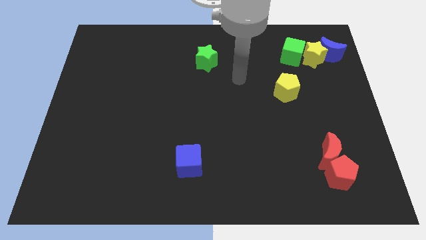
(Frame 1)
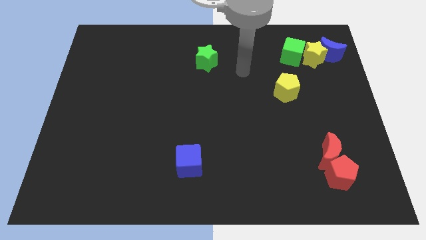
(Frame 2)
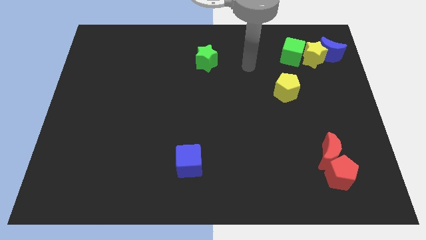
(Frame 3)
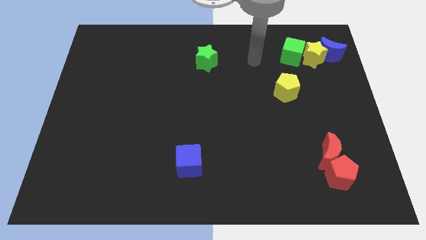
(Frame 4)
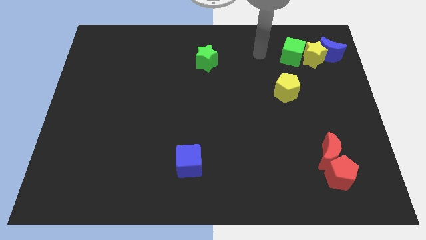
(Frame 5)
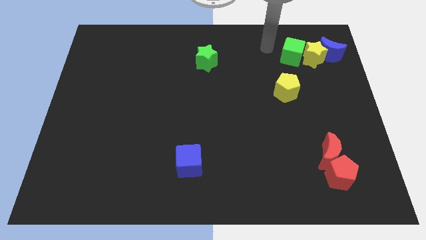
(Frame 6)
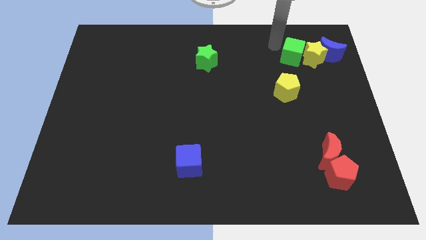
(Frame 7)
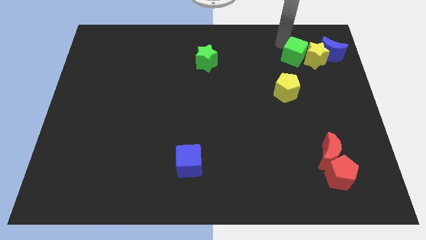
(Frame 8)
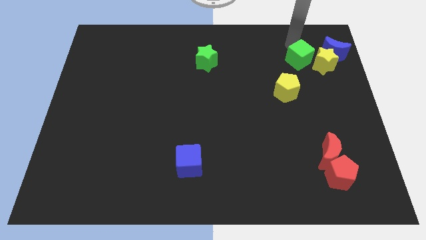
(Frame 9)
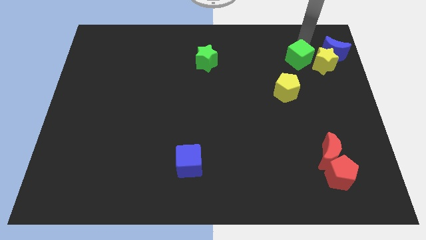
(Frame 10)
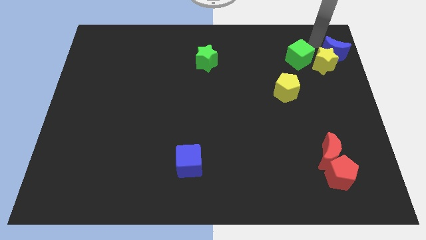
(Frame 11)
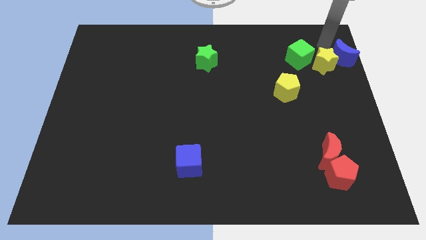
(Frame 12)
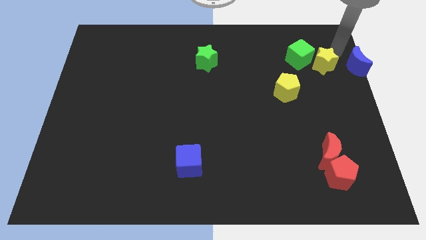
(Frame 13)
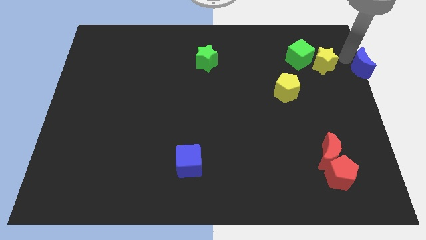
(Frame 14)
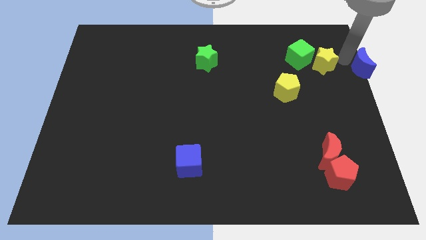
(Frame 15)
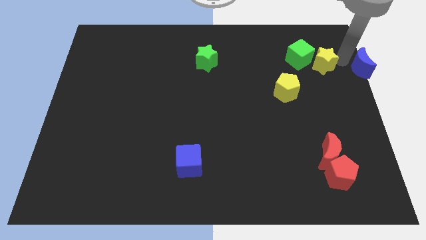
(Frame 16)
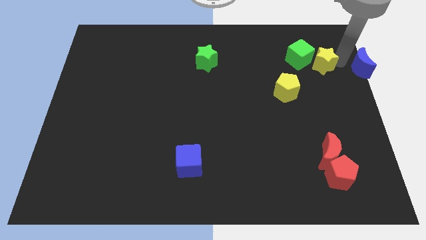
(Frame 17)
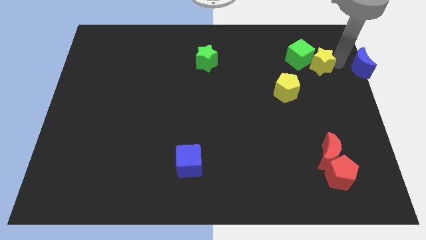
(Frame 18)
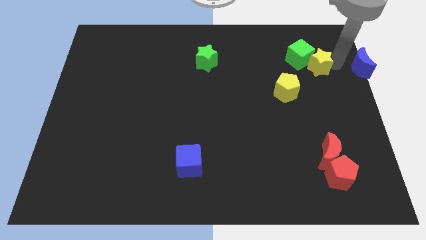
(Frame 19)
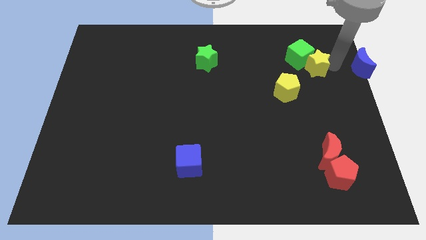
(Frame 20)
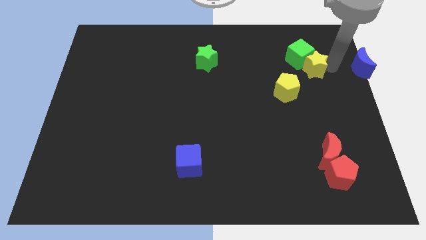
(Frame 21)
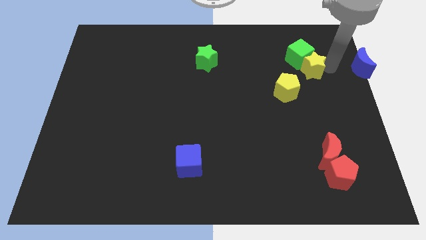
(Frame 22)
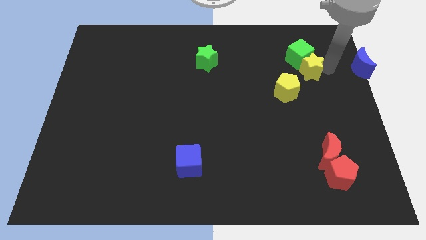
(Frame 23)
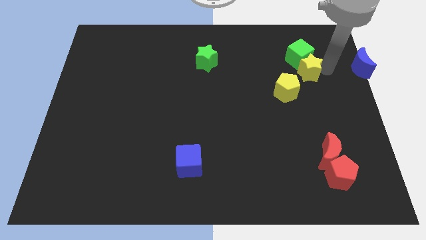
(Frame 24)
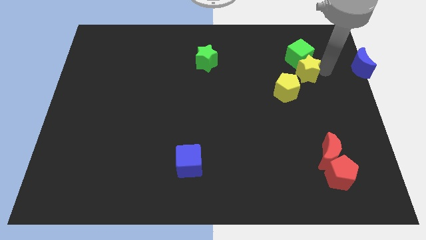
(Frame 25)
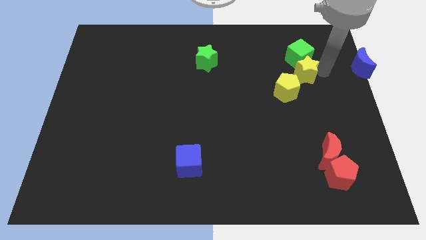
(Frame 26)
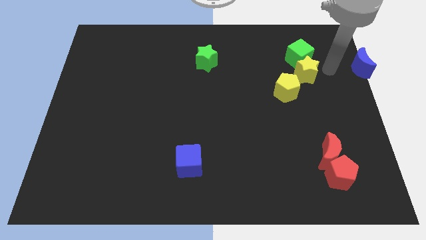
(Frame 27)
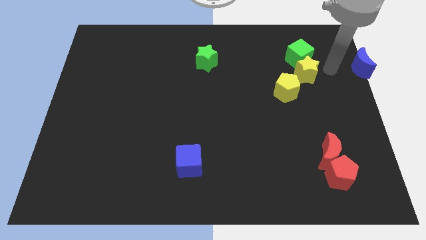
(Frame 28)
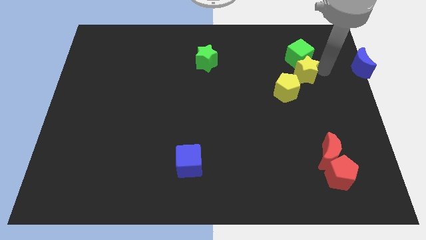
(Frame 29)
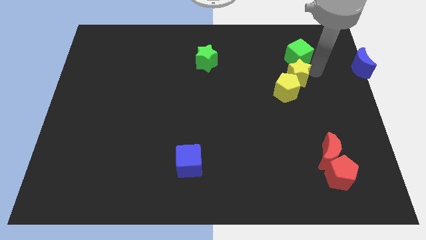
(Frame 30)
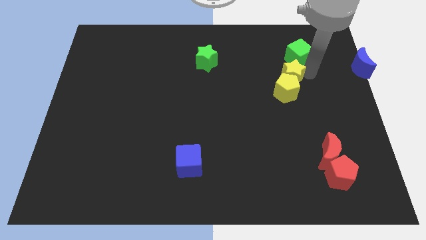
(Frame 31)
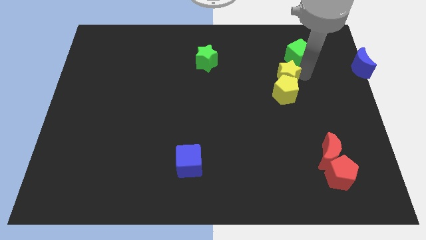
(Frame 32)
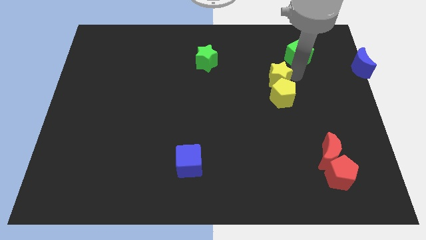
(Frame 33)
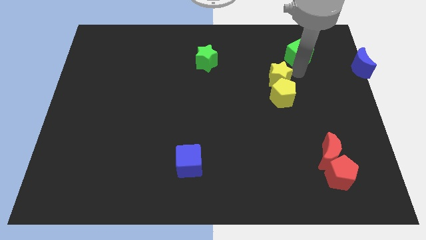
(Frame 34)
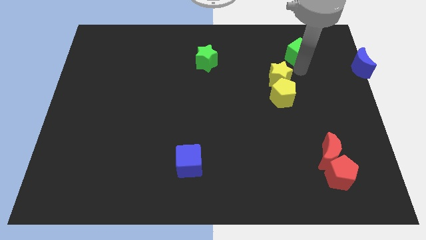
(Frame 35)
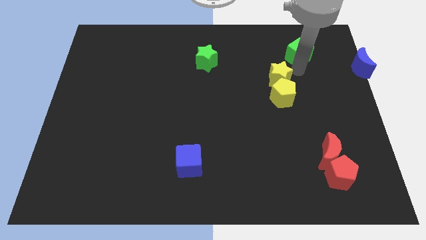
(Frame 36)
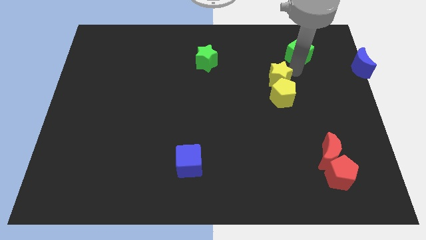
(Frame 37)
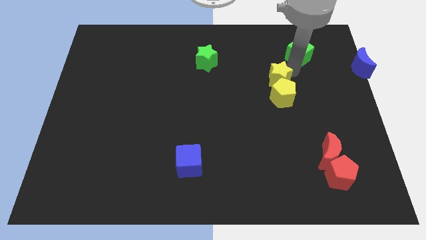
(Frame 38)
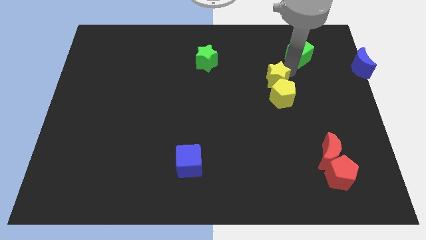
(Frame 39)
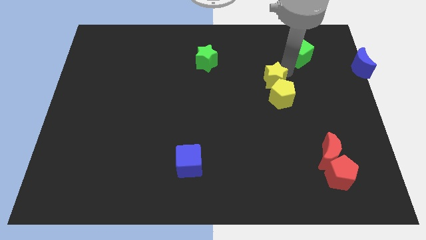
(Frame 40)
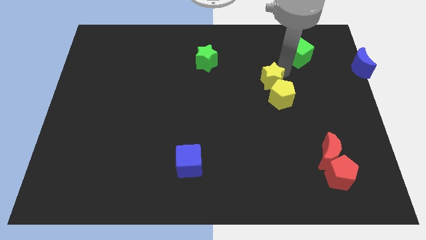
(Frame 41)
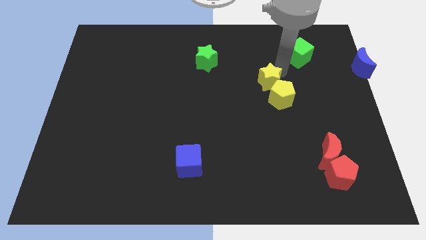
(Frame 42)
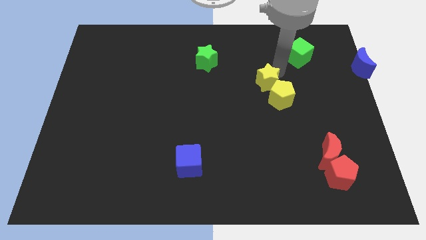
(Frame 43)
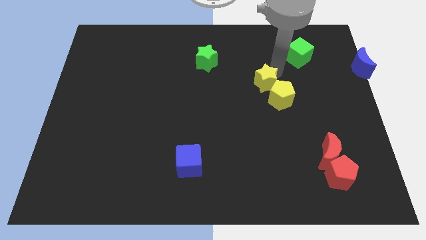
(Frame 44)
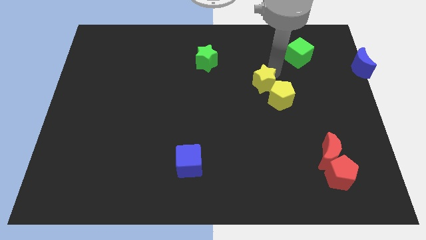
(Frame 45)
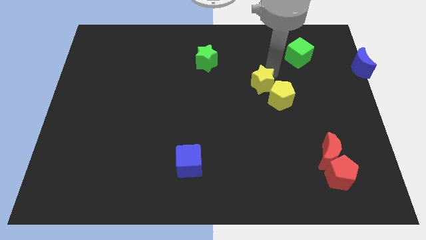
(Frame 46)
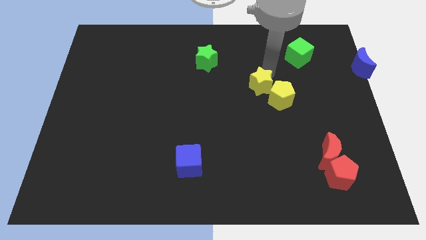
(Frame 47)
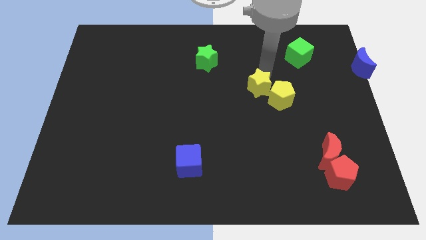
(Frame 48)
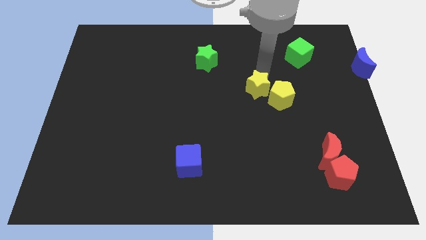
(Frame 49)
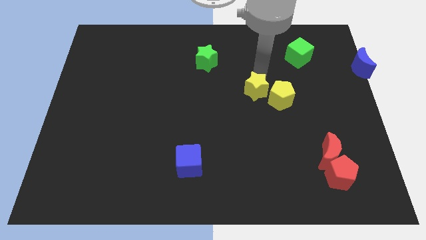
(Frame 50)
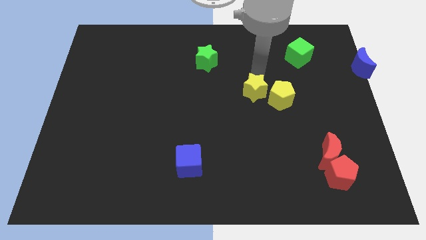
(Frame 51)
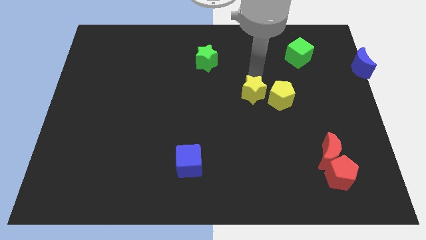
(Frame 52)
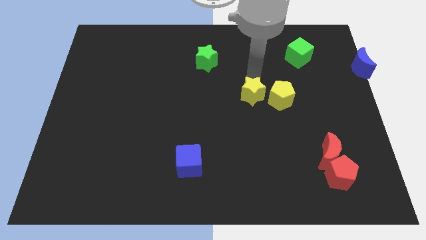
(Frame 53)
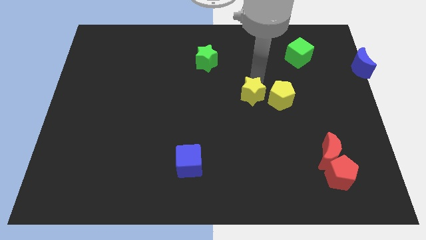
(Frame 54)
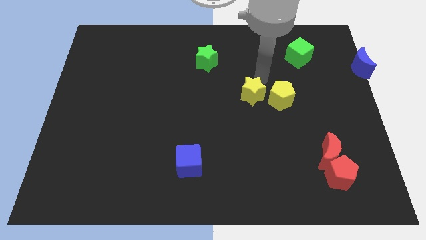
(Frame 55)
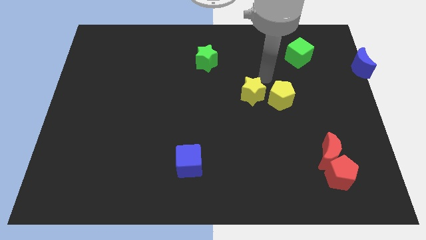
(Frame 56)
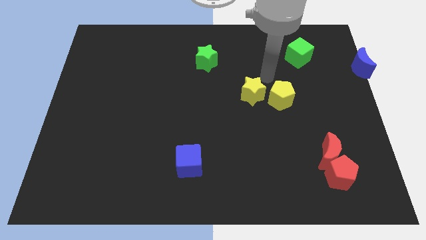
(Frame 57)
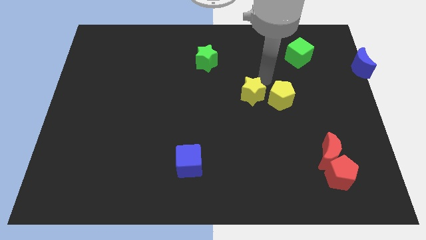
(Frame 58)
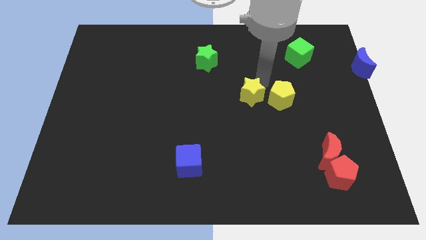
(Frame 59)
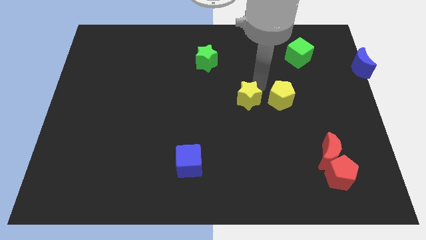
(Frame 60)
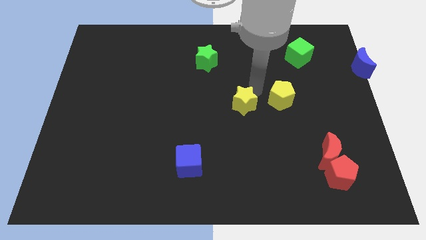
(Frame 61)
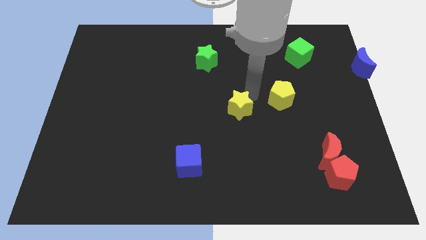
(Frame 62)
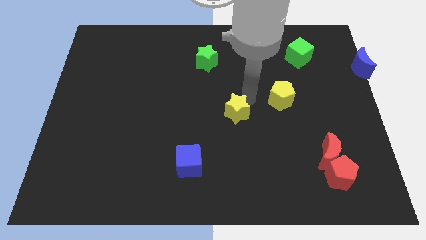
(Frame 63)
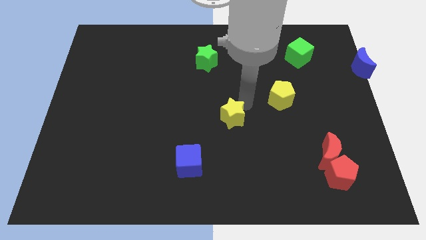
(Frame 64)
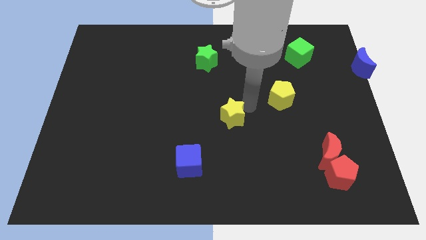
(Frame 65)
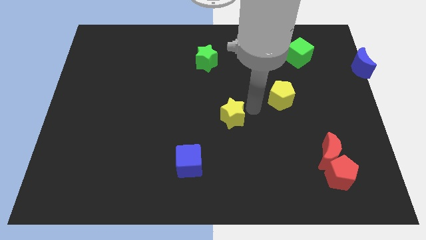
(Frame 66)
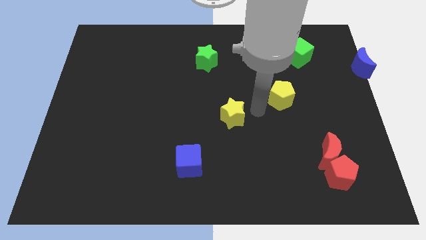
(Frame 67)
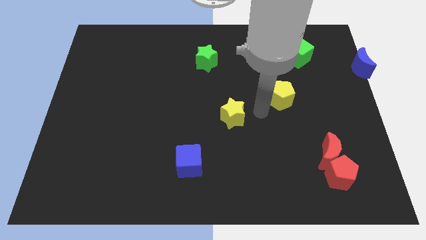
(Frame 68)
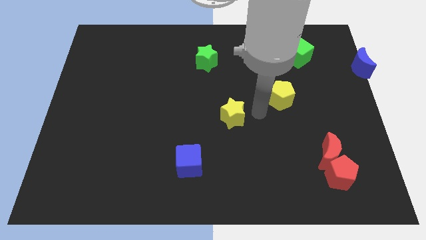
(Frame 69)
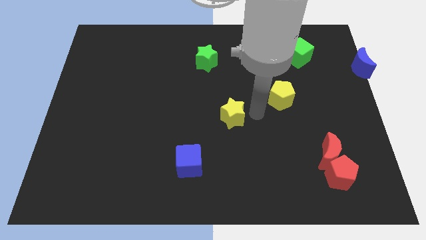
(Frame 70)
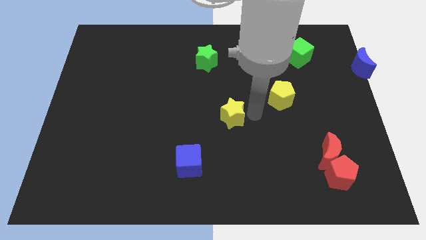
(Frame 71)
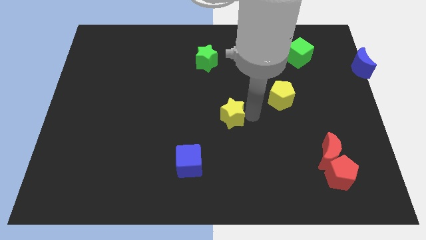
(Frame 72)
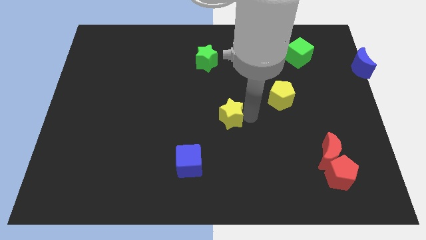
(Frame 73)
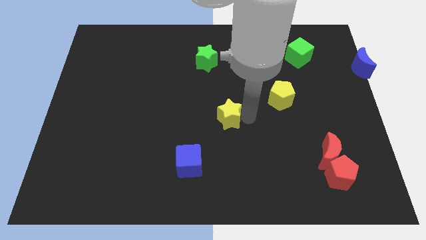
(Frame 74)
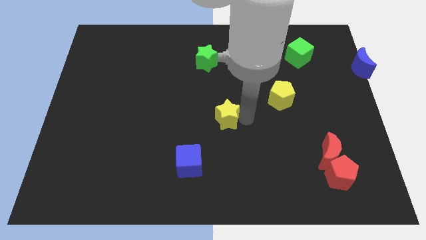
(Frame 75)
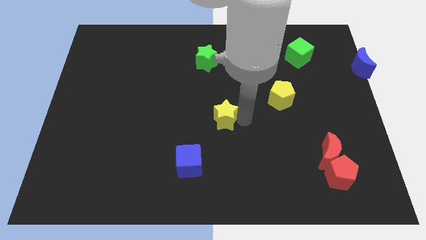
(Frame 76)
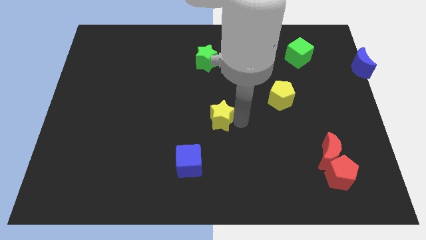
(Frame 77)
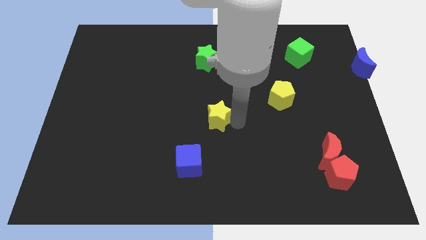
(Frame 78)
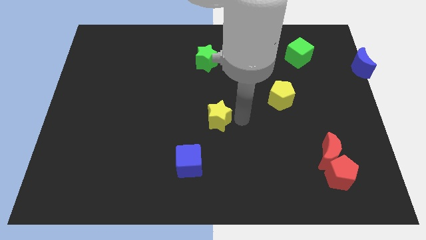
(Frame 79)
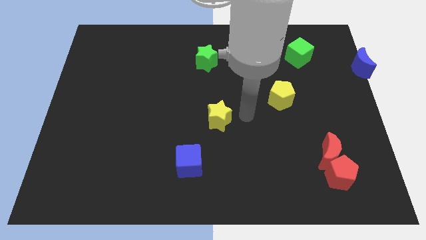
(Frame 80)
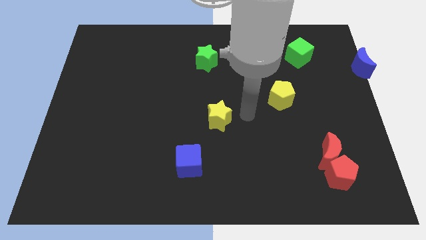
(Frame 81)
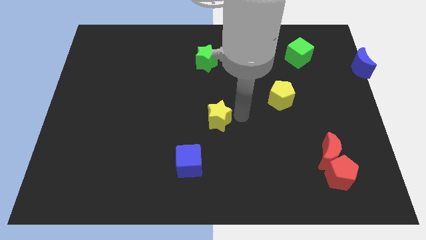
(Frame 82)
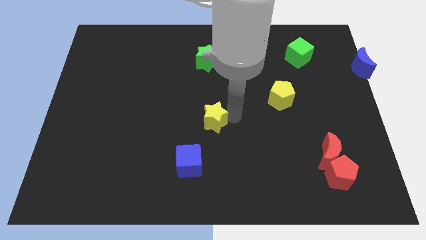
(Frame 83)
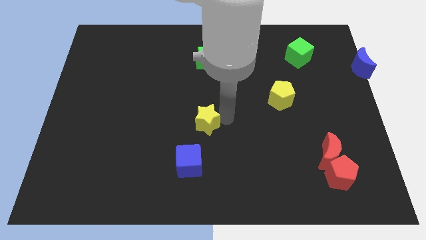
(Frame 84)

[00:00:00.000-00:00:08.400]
put the yellow star to the top of the blue cube
